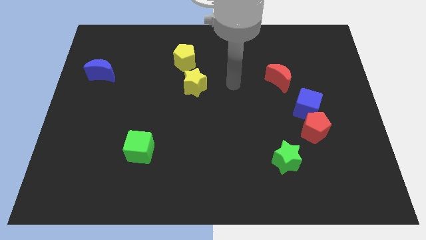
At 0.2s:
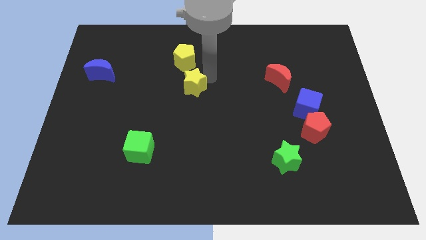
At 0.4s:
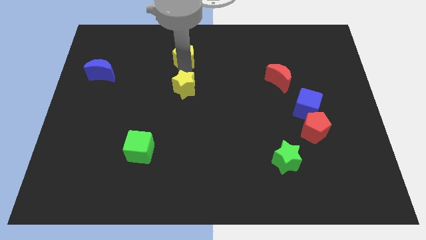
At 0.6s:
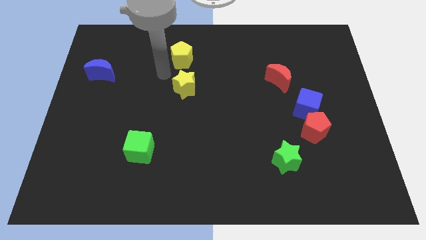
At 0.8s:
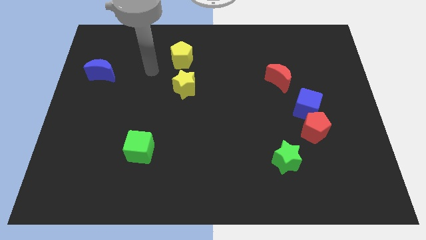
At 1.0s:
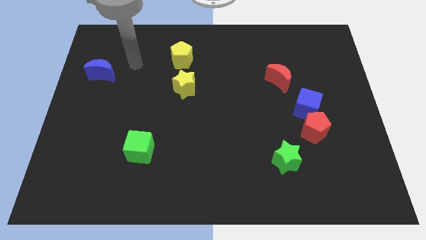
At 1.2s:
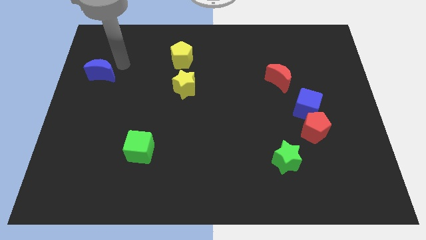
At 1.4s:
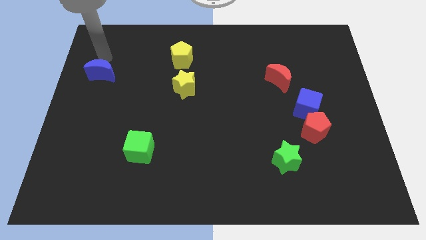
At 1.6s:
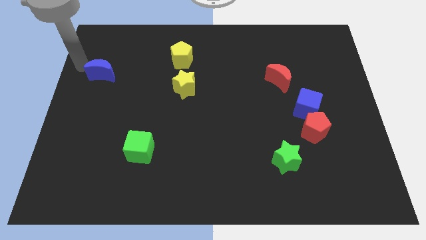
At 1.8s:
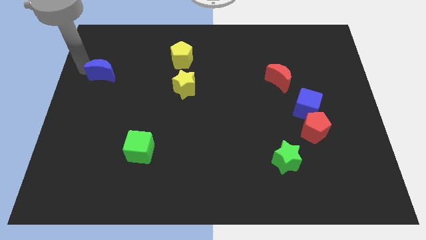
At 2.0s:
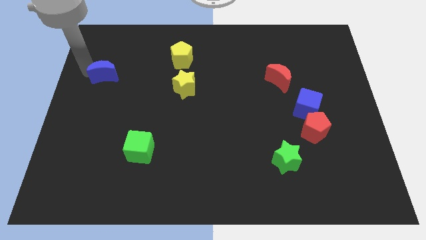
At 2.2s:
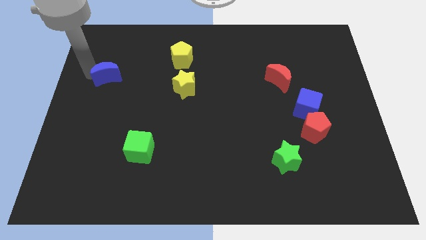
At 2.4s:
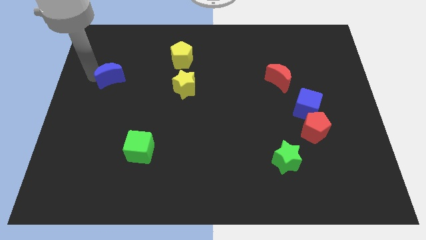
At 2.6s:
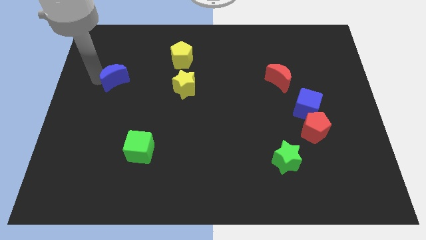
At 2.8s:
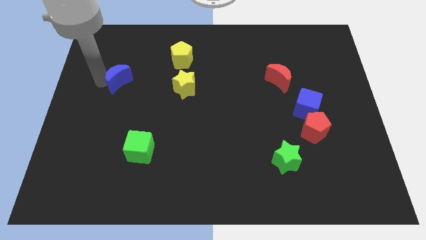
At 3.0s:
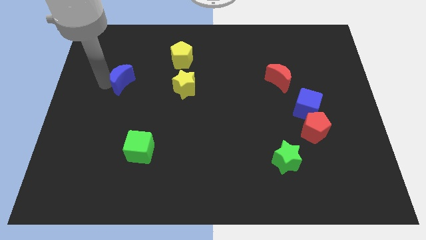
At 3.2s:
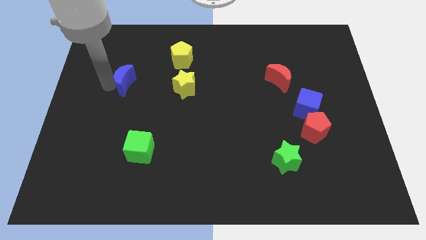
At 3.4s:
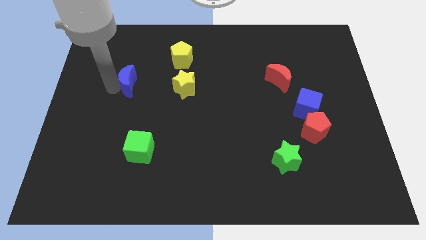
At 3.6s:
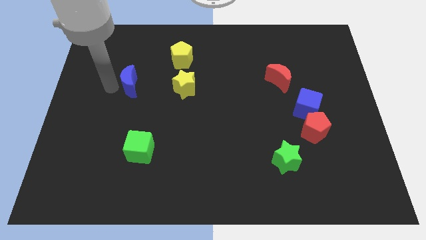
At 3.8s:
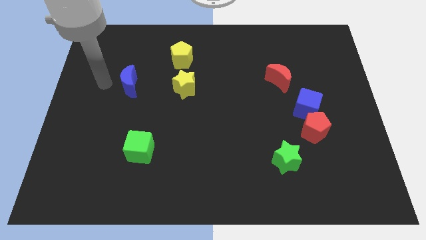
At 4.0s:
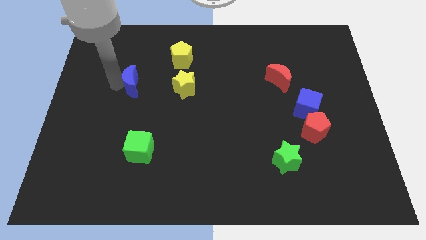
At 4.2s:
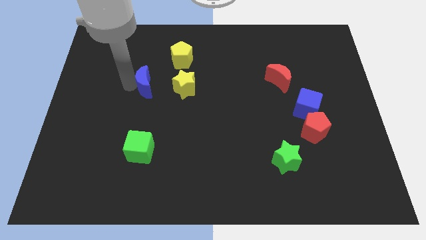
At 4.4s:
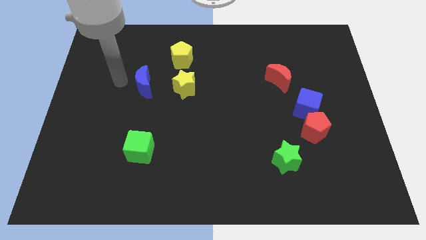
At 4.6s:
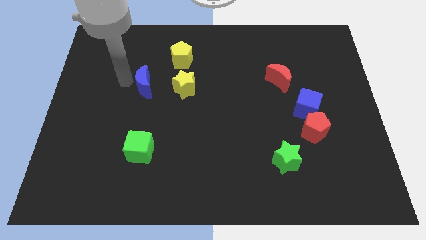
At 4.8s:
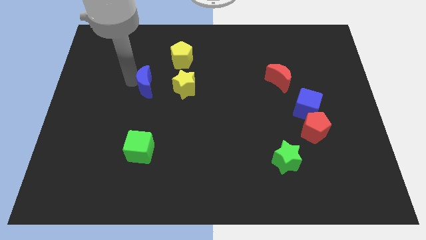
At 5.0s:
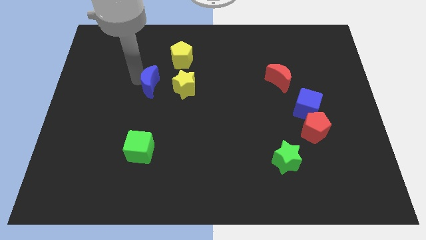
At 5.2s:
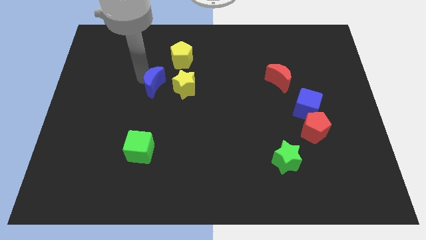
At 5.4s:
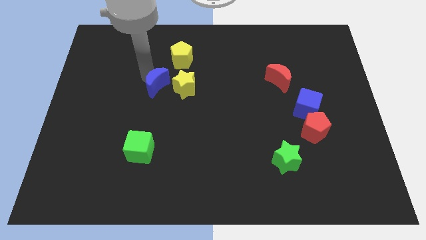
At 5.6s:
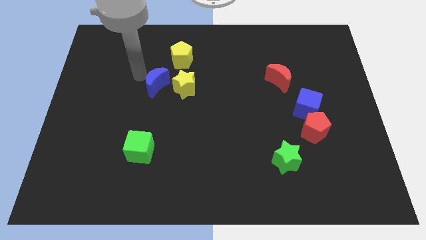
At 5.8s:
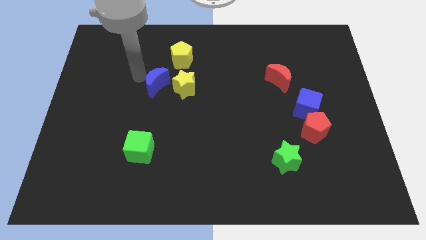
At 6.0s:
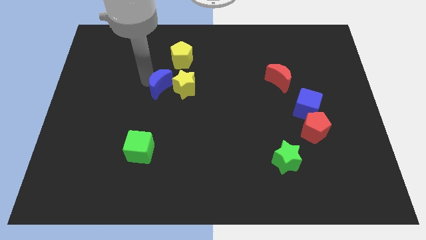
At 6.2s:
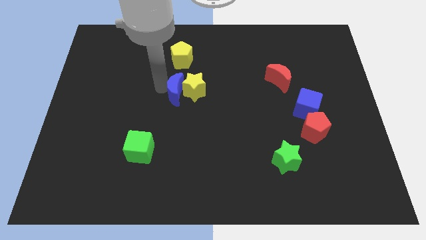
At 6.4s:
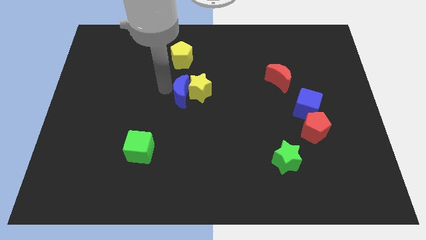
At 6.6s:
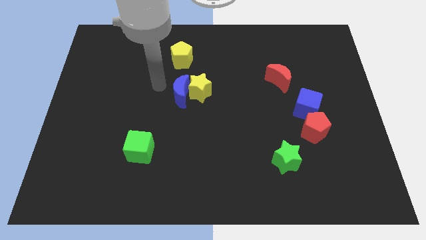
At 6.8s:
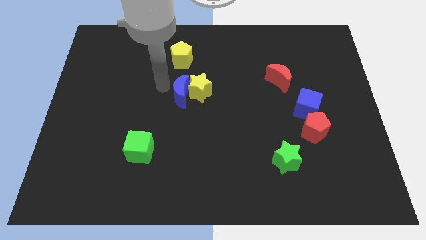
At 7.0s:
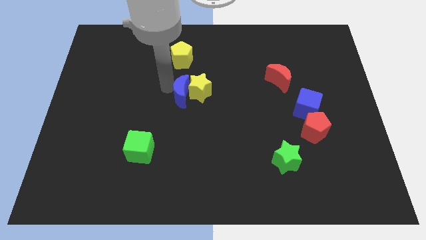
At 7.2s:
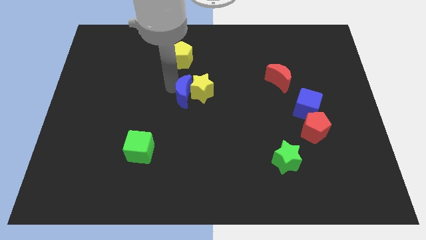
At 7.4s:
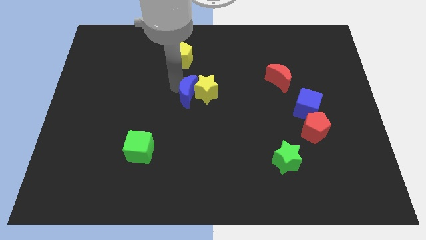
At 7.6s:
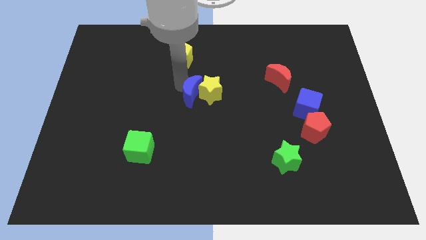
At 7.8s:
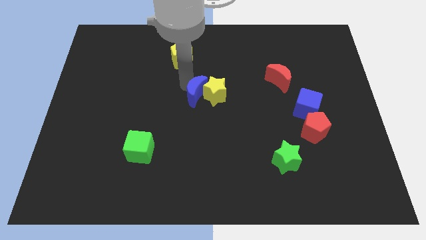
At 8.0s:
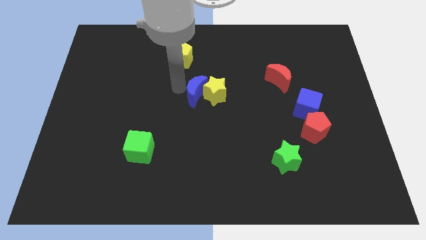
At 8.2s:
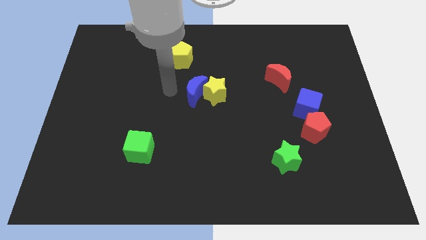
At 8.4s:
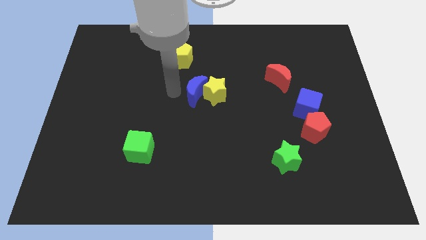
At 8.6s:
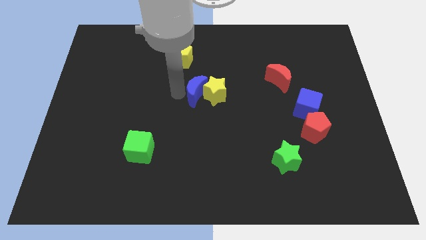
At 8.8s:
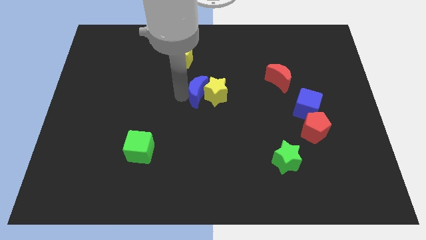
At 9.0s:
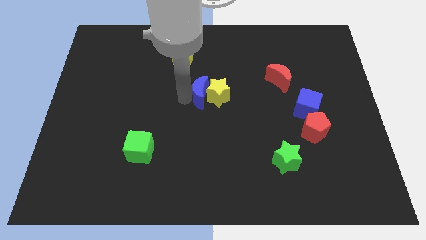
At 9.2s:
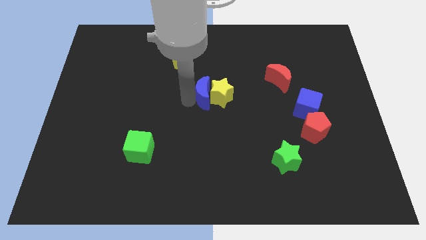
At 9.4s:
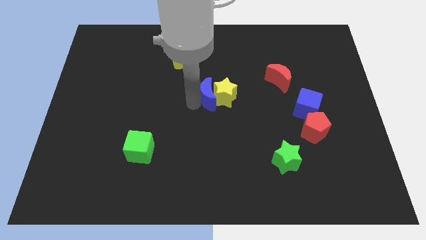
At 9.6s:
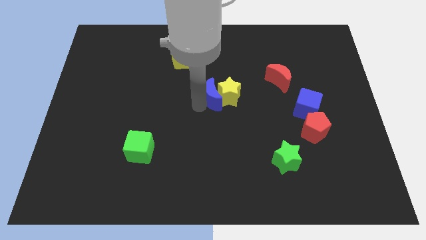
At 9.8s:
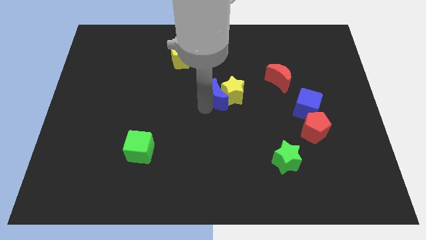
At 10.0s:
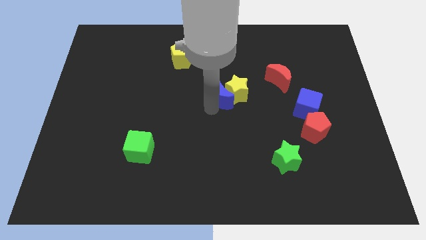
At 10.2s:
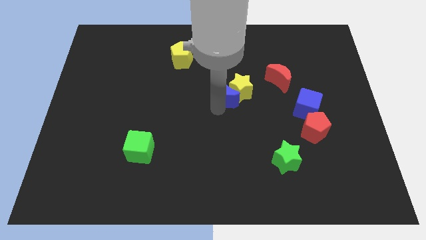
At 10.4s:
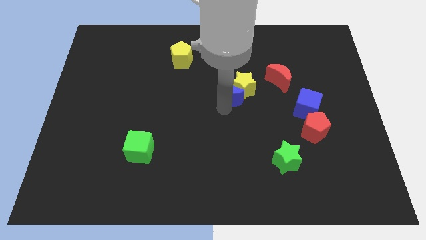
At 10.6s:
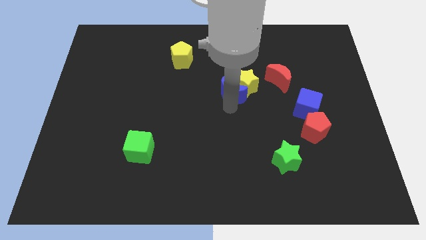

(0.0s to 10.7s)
slide the blue moon just left of the red moon

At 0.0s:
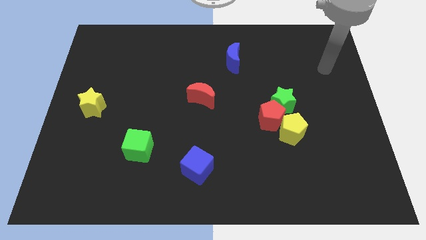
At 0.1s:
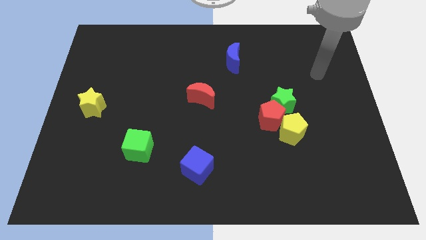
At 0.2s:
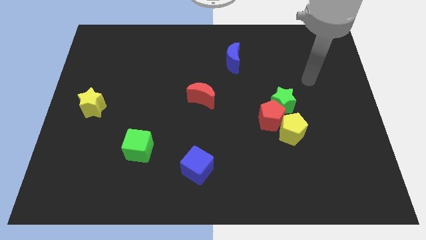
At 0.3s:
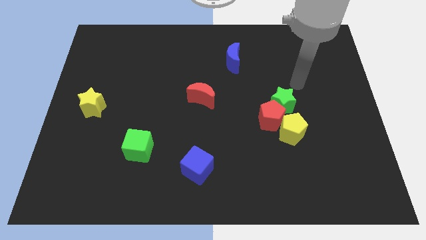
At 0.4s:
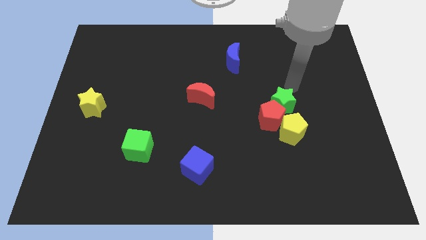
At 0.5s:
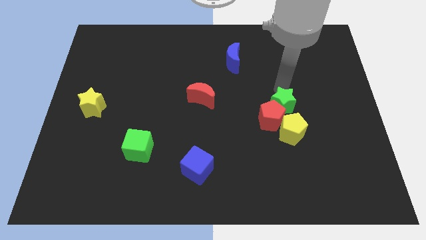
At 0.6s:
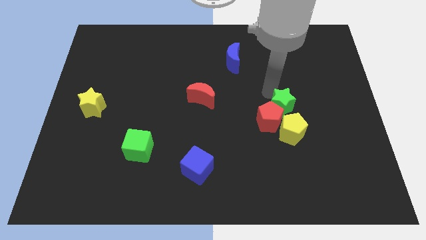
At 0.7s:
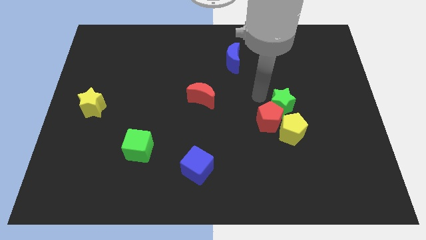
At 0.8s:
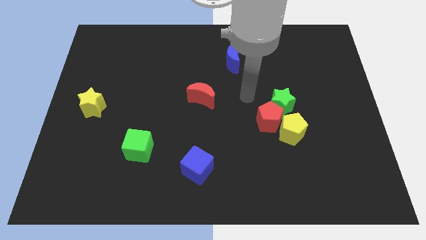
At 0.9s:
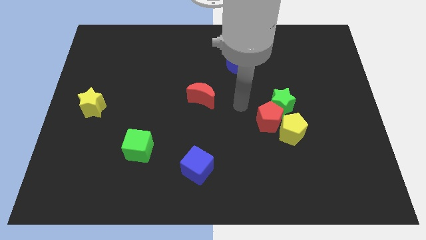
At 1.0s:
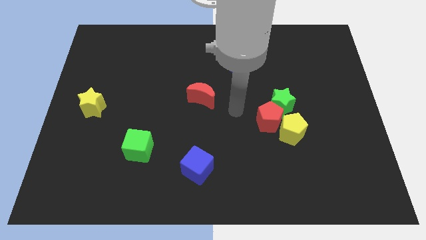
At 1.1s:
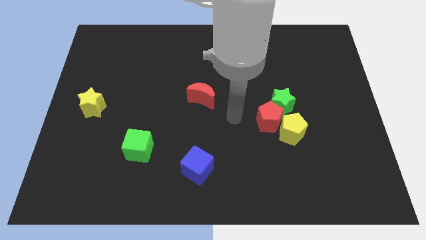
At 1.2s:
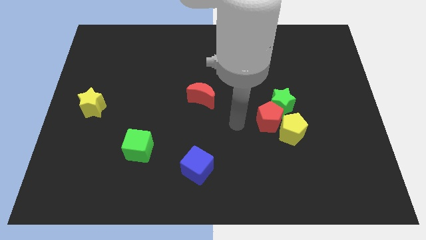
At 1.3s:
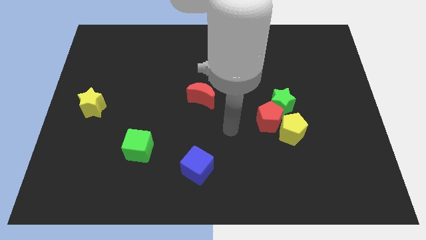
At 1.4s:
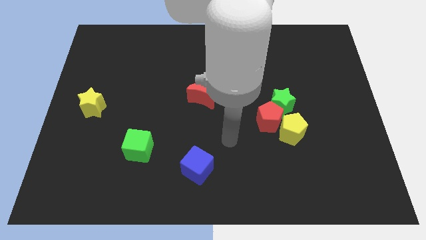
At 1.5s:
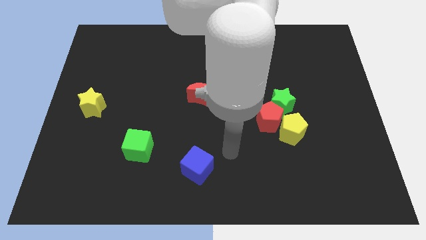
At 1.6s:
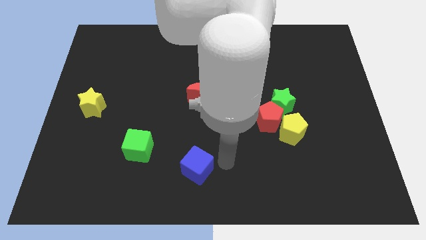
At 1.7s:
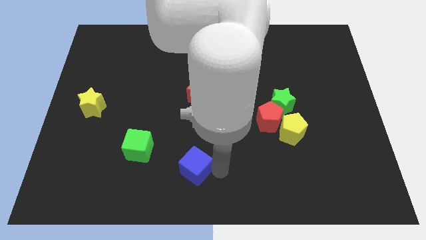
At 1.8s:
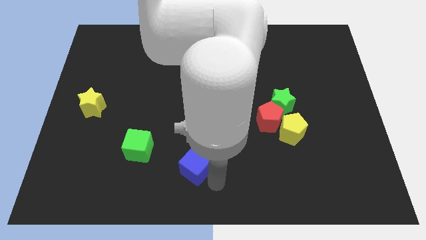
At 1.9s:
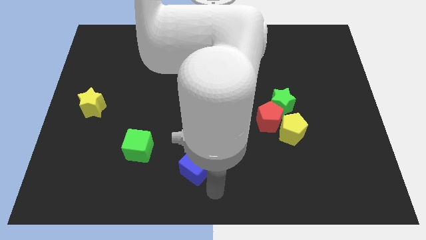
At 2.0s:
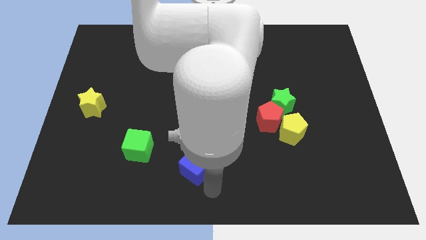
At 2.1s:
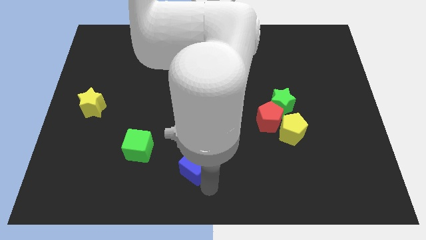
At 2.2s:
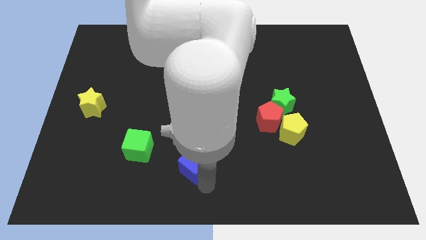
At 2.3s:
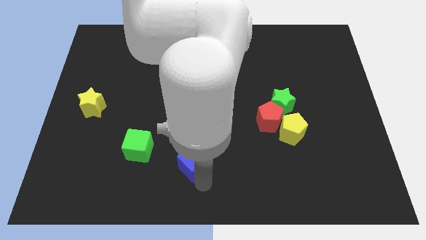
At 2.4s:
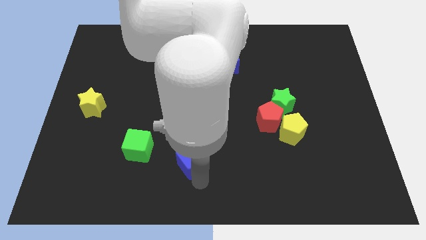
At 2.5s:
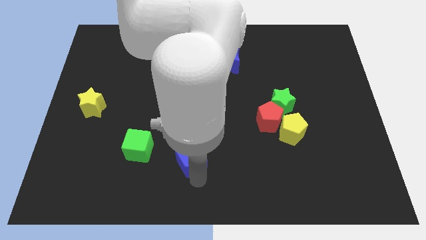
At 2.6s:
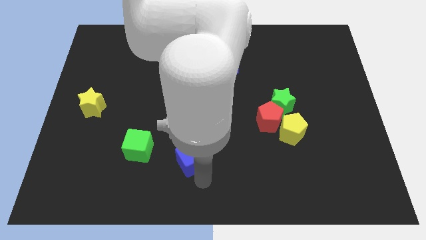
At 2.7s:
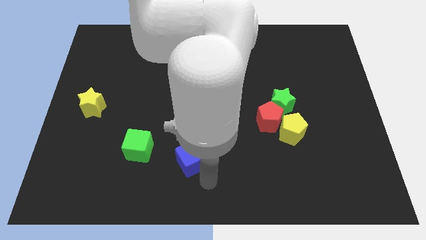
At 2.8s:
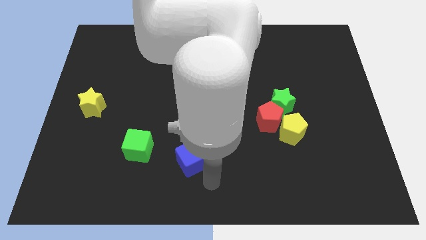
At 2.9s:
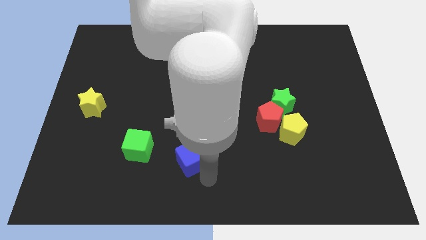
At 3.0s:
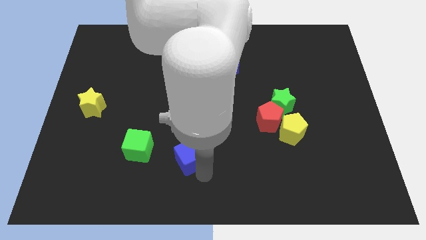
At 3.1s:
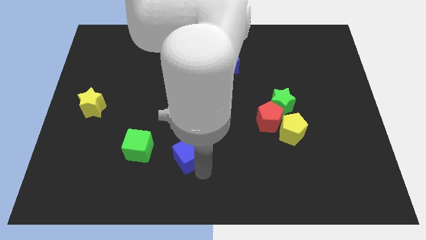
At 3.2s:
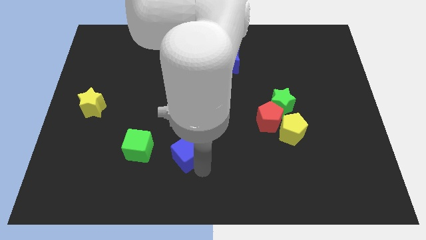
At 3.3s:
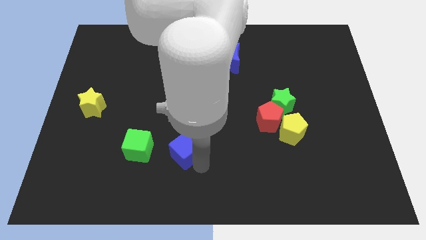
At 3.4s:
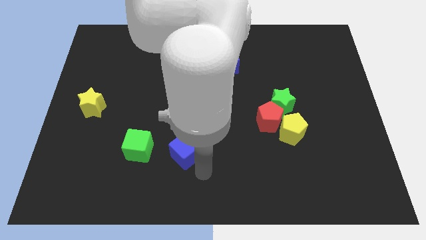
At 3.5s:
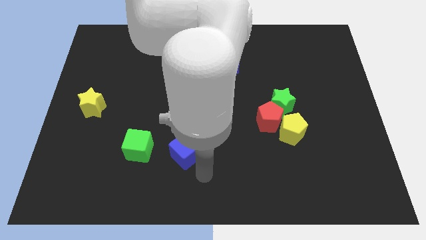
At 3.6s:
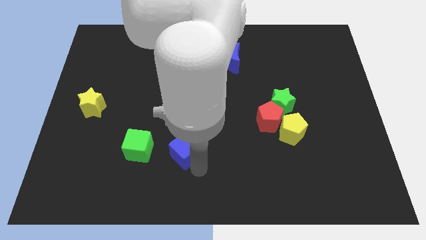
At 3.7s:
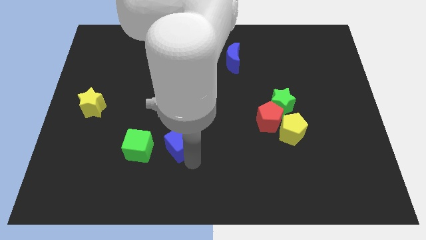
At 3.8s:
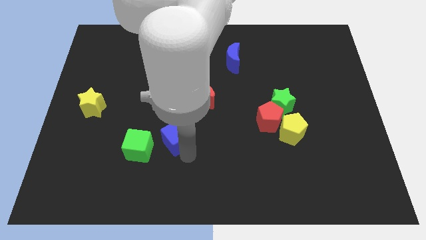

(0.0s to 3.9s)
put the blue cube to the top right side of the green cube
